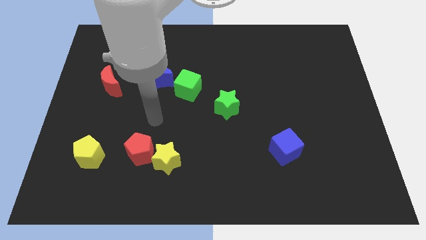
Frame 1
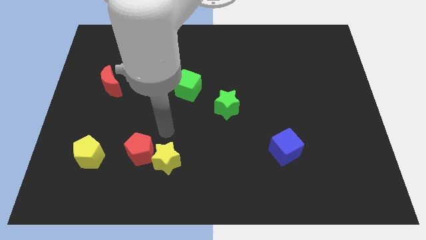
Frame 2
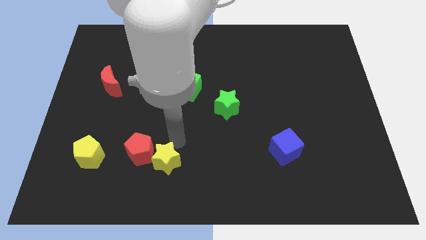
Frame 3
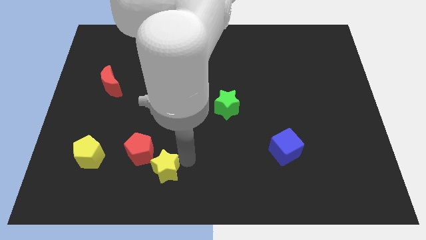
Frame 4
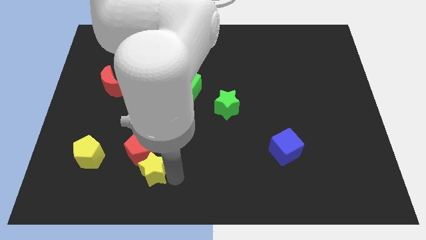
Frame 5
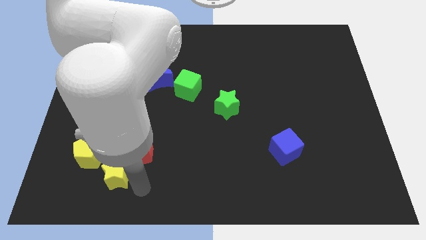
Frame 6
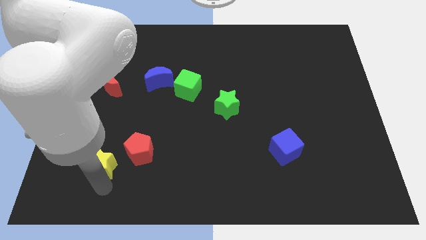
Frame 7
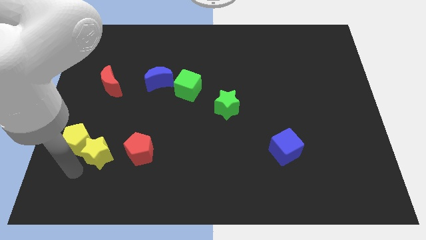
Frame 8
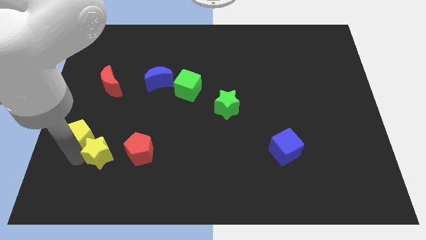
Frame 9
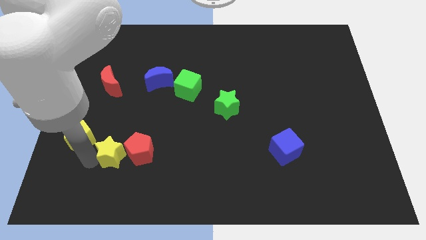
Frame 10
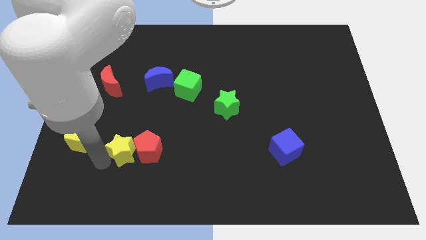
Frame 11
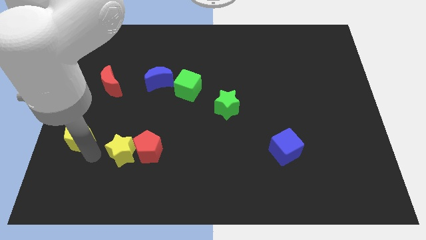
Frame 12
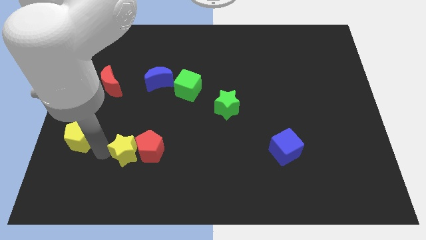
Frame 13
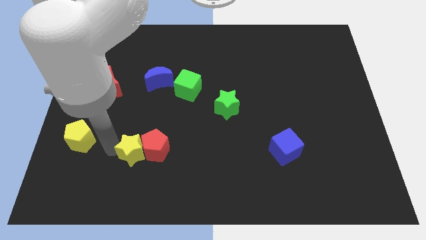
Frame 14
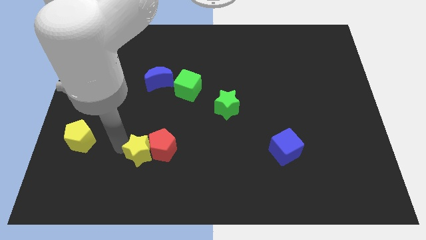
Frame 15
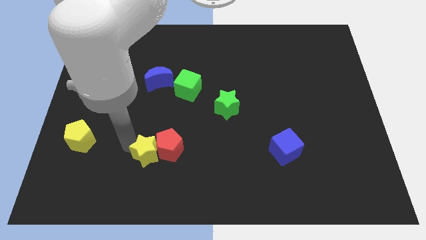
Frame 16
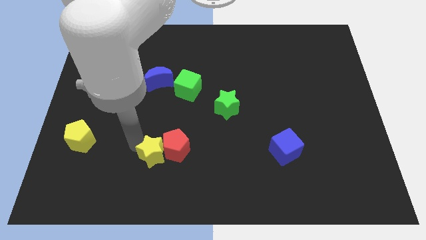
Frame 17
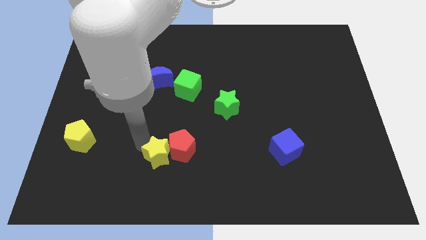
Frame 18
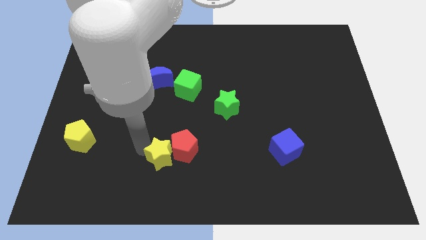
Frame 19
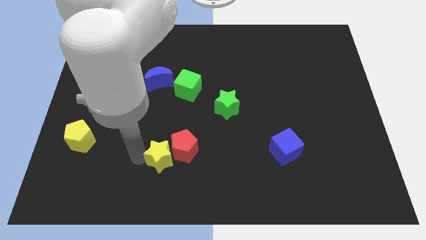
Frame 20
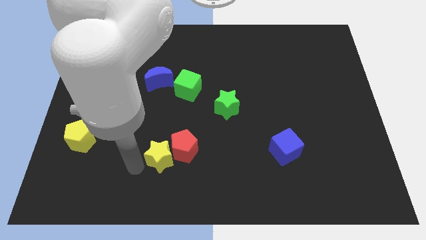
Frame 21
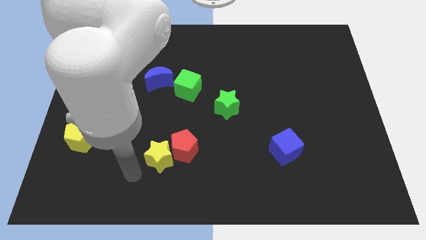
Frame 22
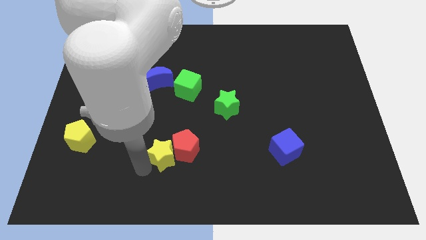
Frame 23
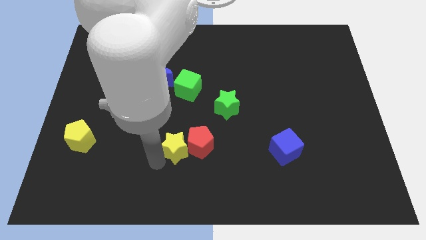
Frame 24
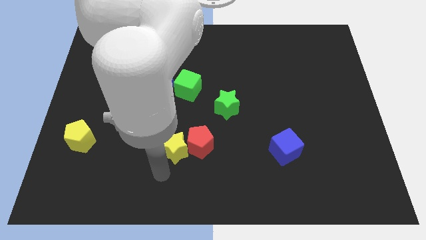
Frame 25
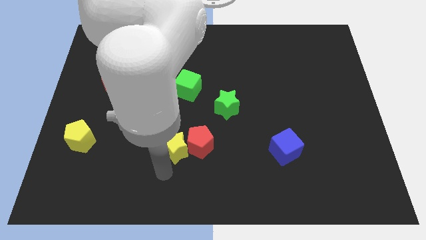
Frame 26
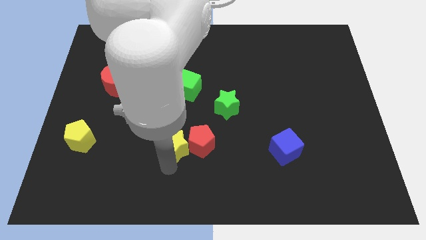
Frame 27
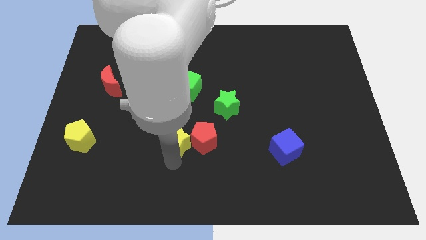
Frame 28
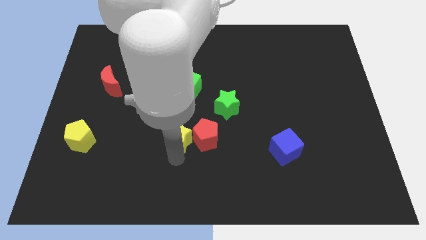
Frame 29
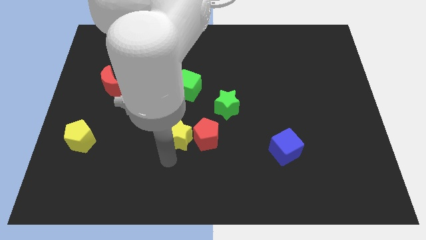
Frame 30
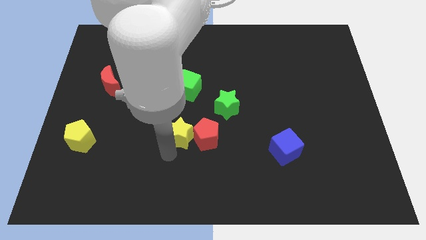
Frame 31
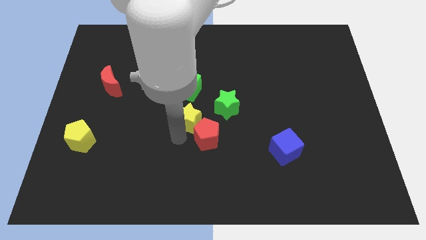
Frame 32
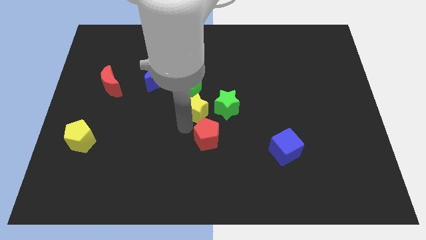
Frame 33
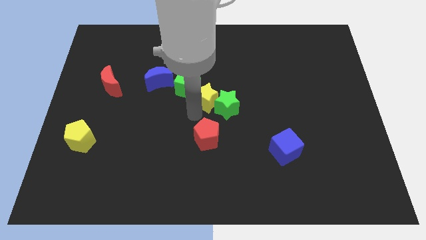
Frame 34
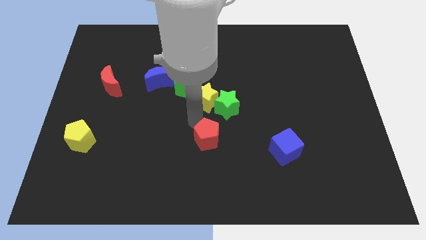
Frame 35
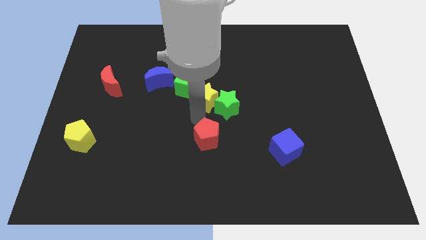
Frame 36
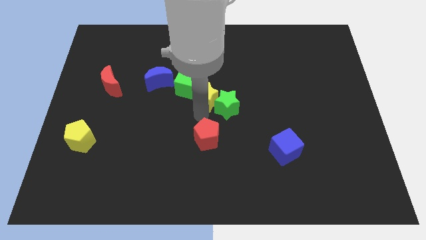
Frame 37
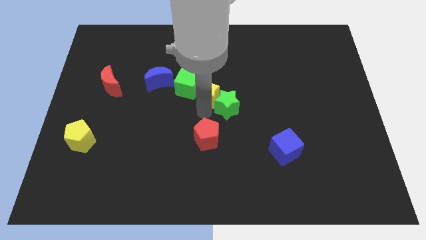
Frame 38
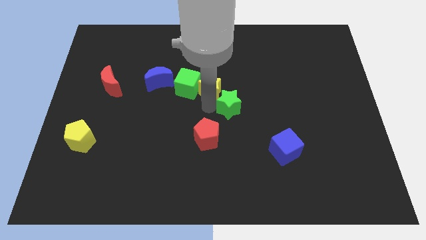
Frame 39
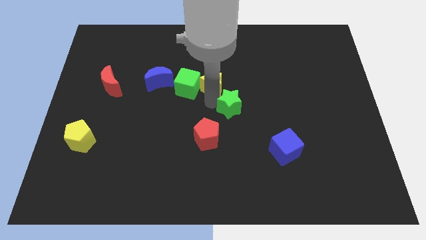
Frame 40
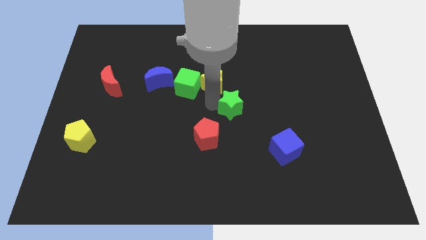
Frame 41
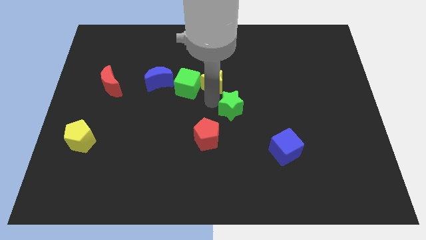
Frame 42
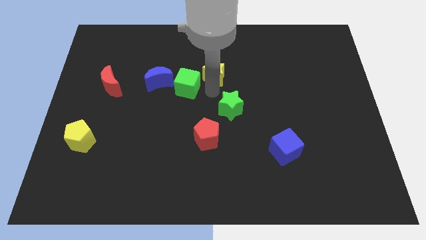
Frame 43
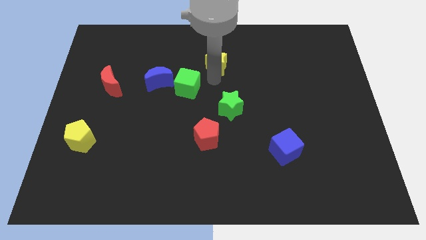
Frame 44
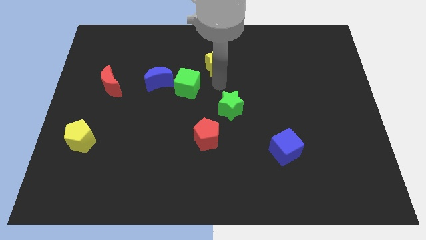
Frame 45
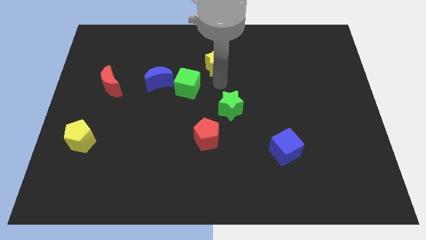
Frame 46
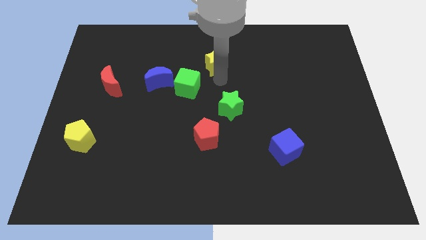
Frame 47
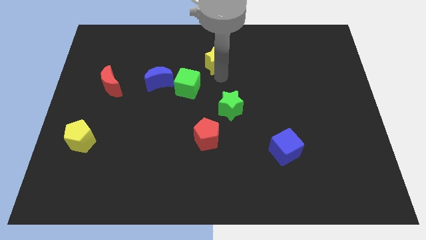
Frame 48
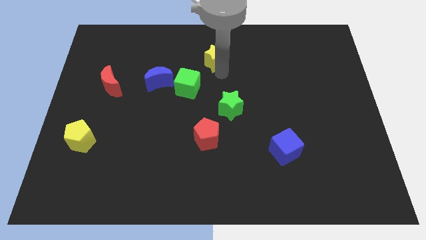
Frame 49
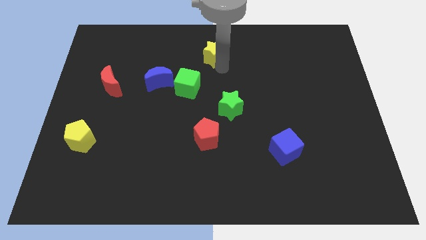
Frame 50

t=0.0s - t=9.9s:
put the yellow star to the top side

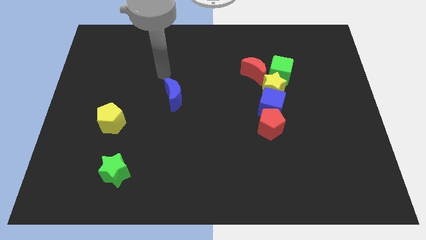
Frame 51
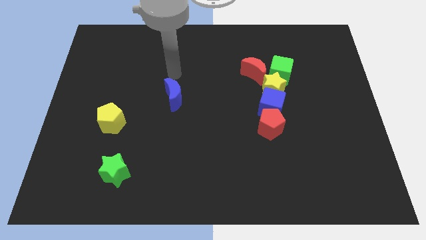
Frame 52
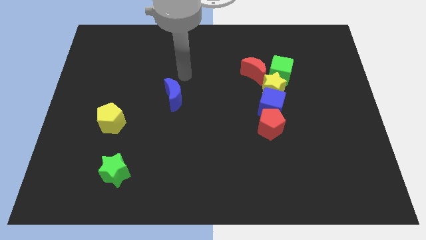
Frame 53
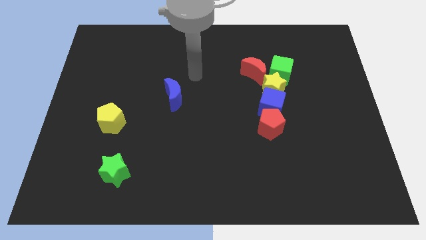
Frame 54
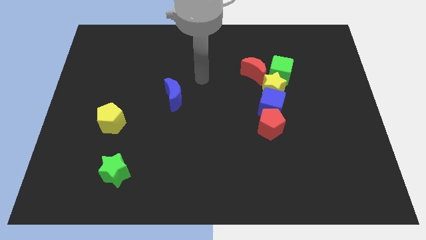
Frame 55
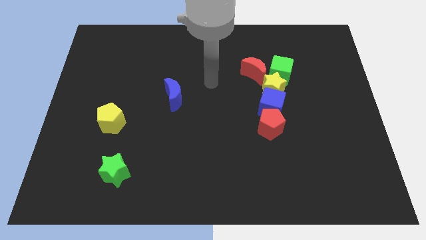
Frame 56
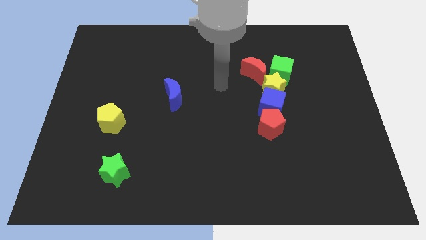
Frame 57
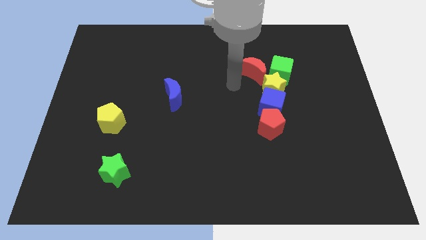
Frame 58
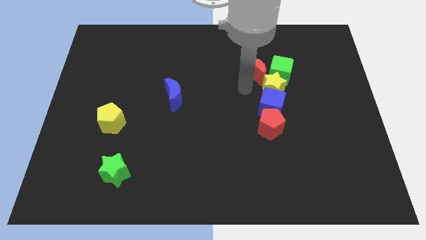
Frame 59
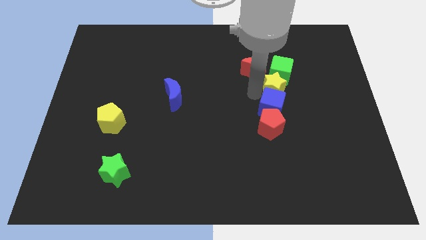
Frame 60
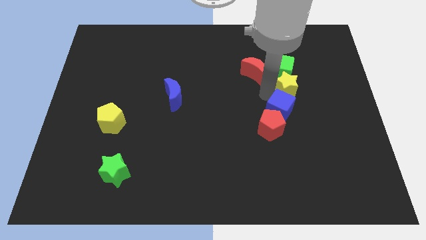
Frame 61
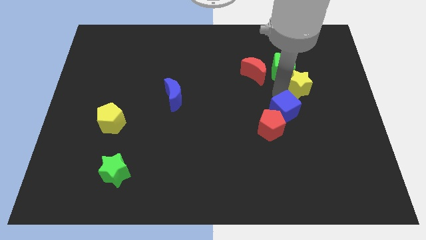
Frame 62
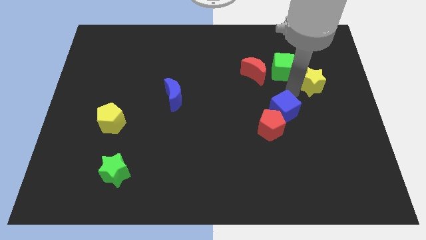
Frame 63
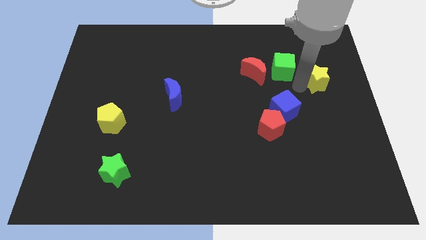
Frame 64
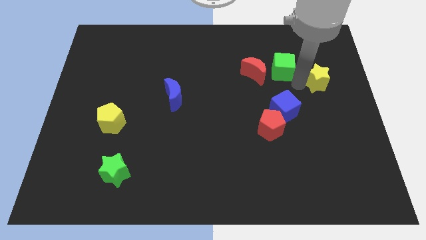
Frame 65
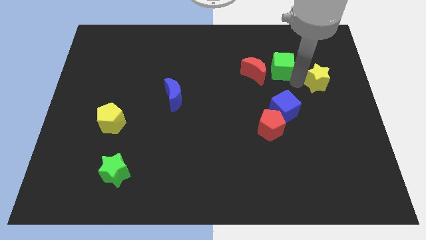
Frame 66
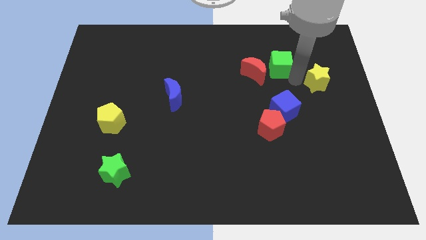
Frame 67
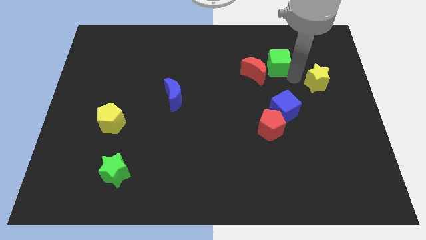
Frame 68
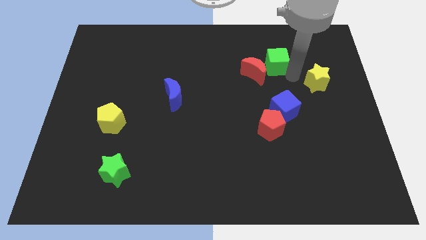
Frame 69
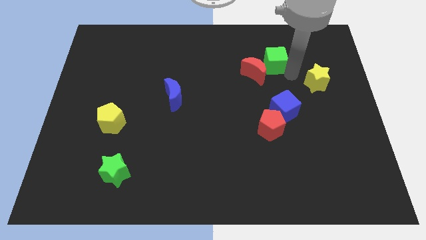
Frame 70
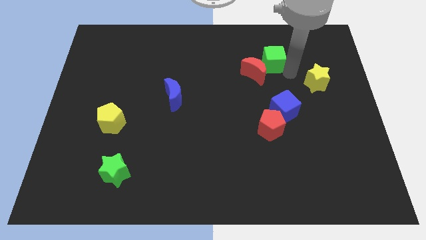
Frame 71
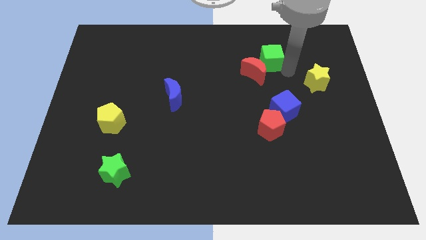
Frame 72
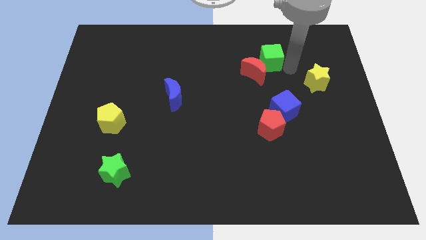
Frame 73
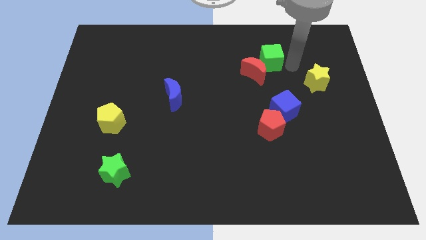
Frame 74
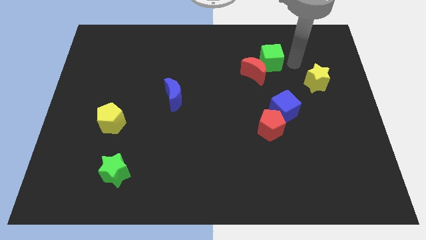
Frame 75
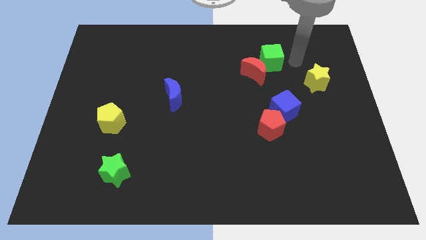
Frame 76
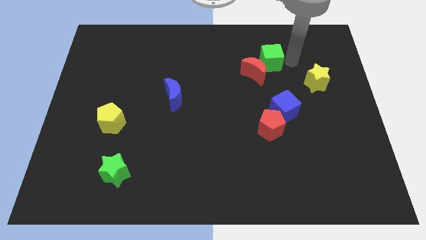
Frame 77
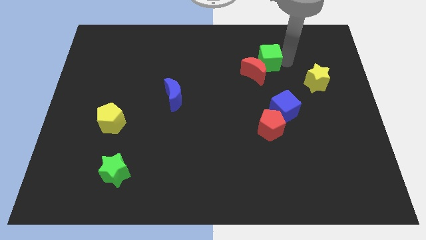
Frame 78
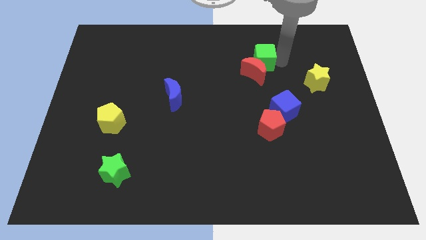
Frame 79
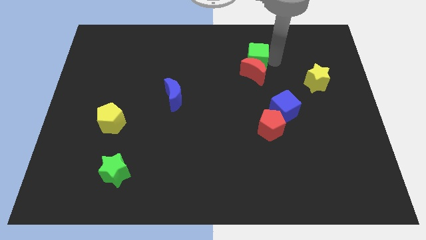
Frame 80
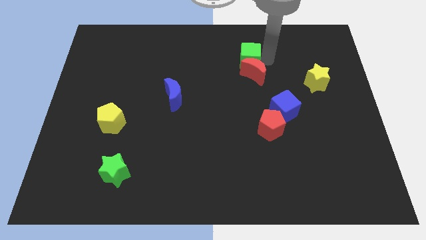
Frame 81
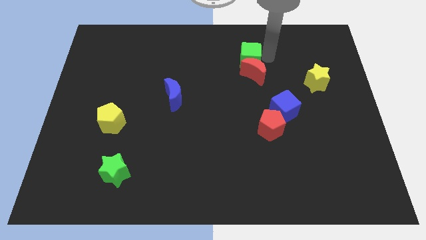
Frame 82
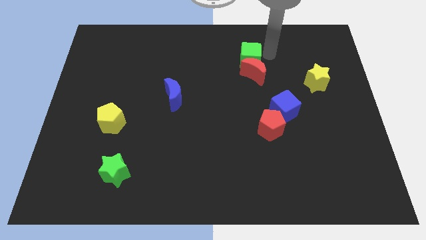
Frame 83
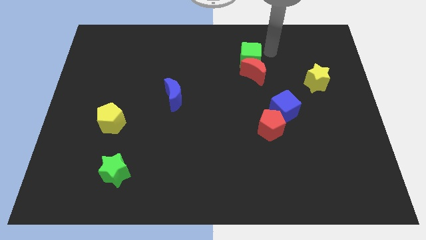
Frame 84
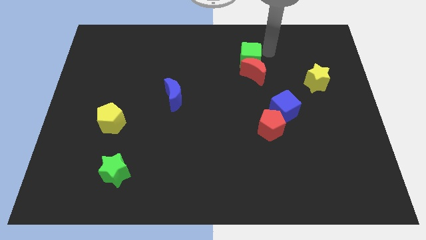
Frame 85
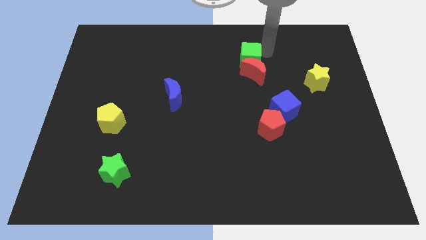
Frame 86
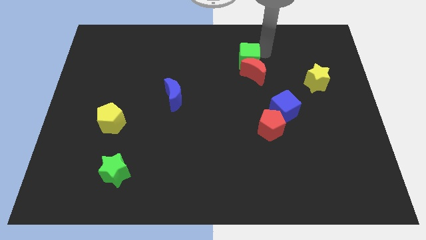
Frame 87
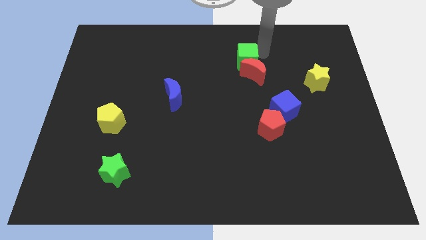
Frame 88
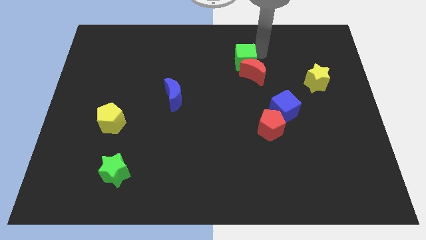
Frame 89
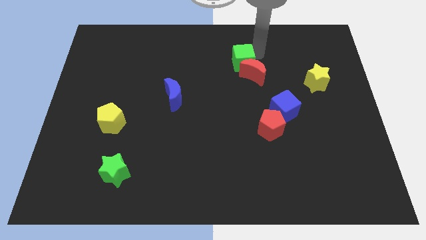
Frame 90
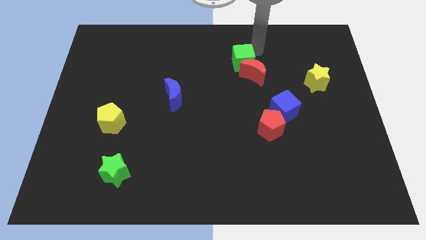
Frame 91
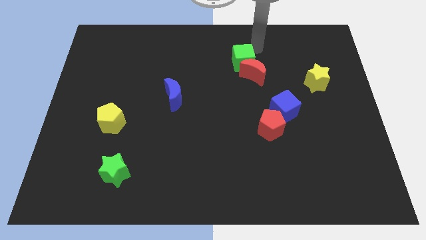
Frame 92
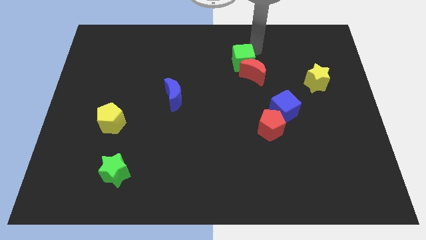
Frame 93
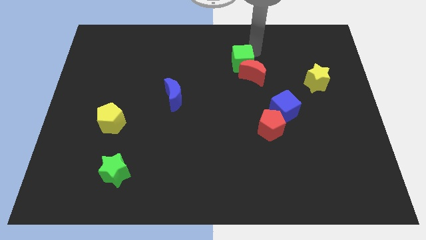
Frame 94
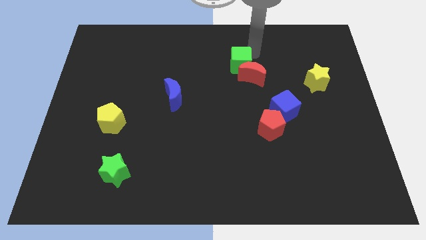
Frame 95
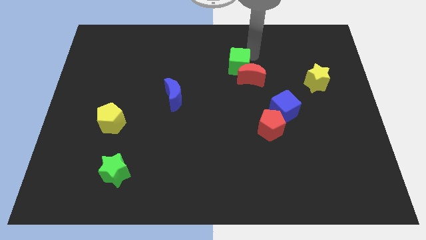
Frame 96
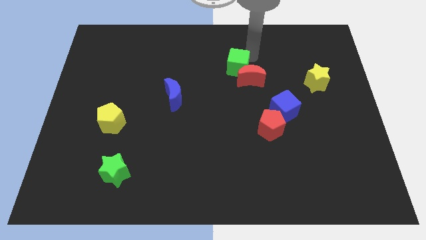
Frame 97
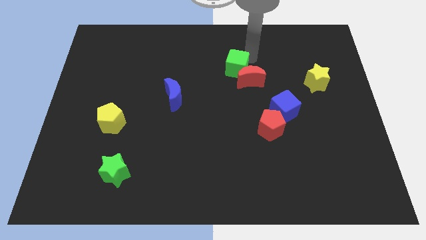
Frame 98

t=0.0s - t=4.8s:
slide the green cube to the center of the board
